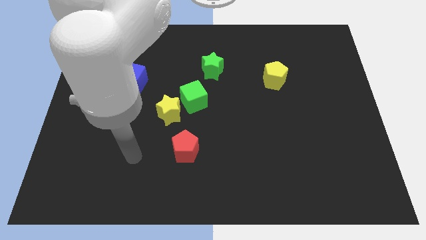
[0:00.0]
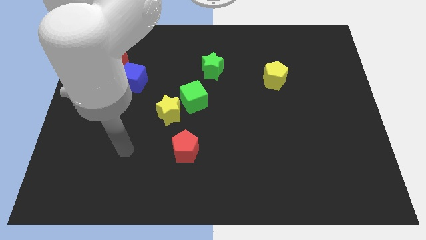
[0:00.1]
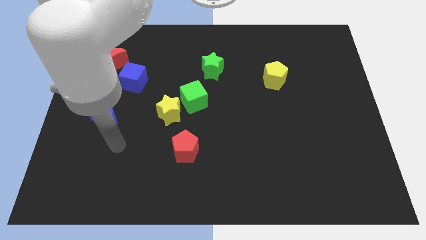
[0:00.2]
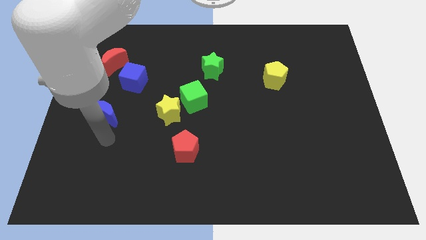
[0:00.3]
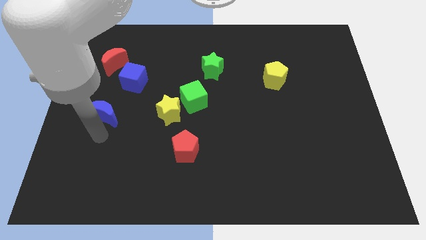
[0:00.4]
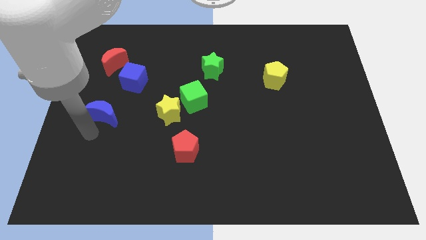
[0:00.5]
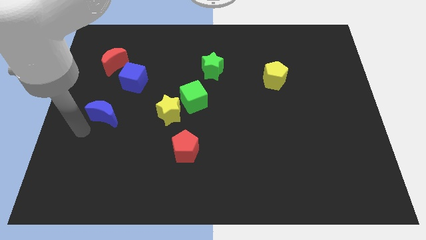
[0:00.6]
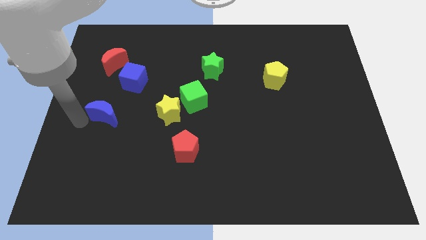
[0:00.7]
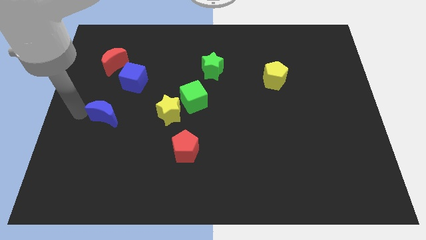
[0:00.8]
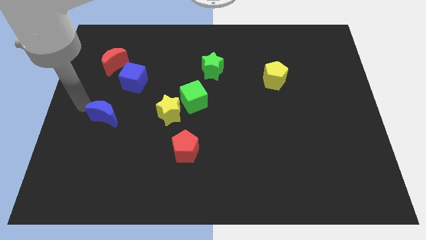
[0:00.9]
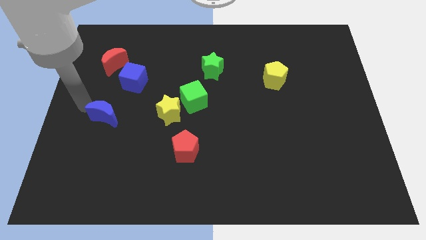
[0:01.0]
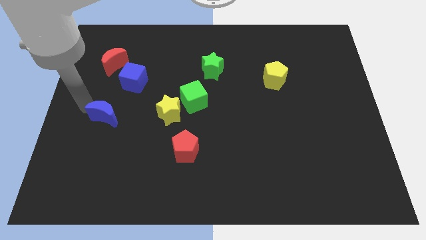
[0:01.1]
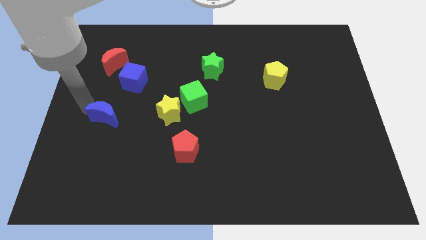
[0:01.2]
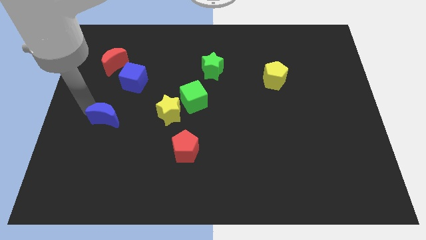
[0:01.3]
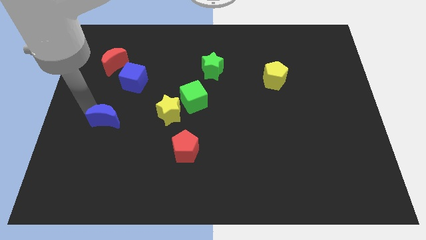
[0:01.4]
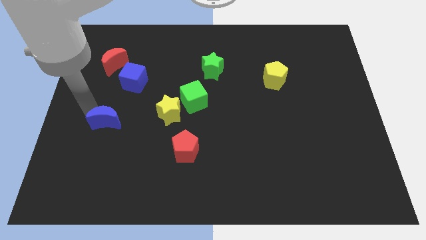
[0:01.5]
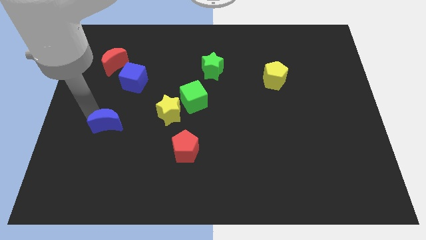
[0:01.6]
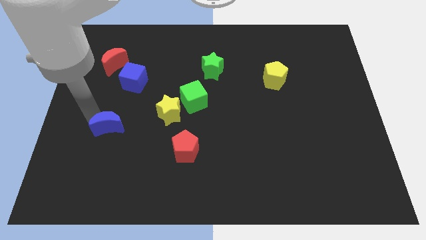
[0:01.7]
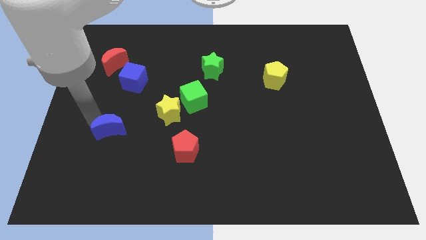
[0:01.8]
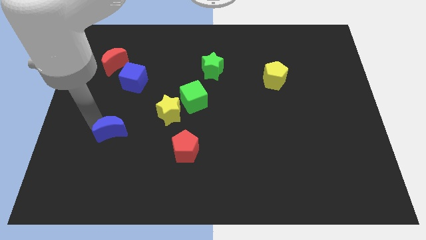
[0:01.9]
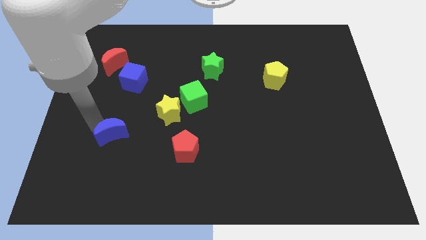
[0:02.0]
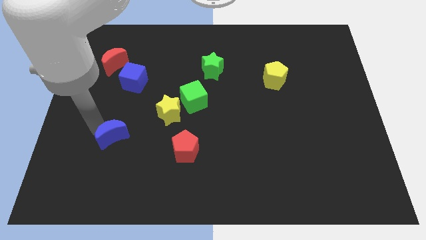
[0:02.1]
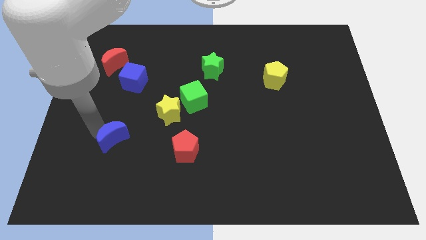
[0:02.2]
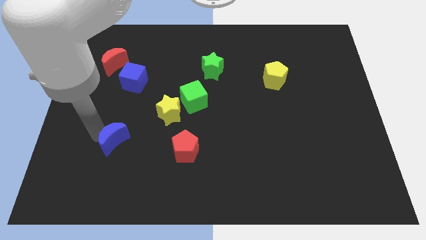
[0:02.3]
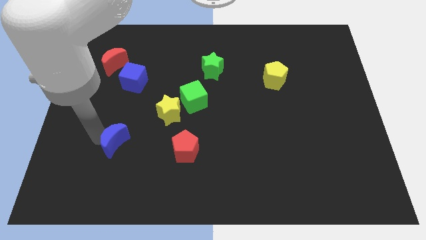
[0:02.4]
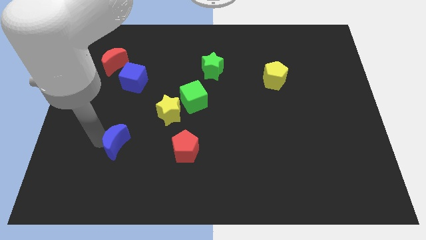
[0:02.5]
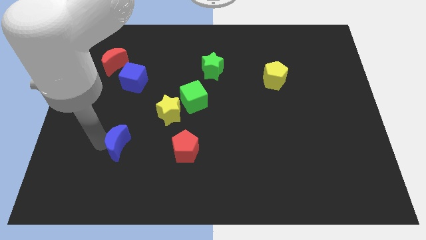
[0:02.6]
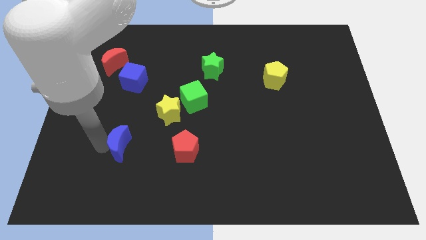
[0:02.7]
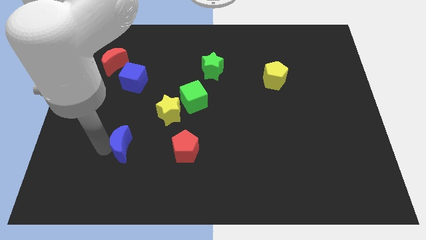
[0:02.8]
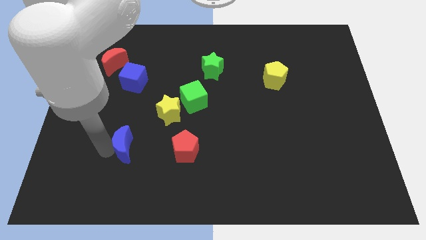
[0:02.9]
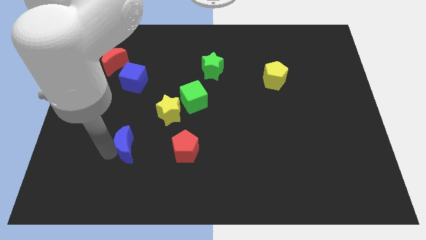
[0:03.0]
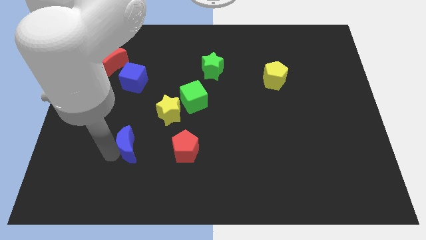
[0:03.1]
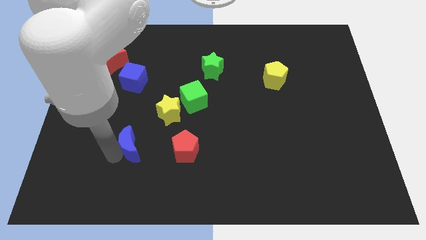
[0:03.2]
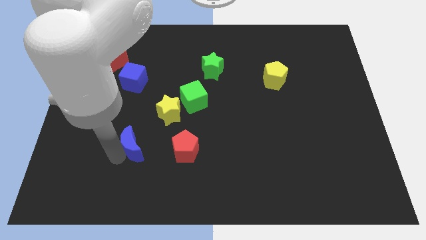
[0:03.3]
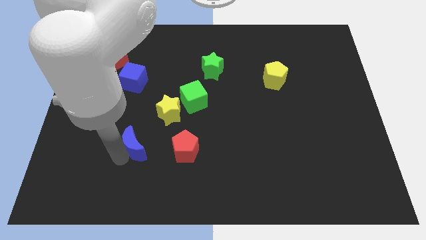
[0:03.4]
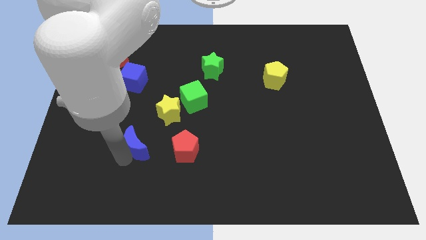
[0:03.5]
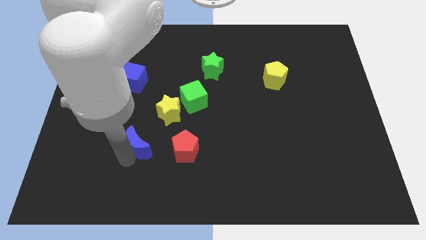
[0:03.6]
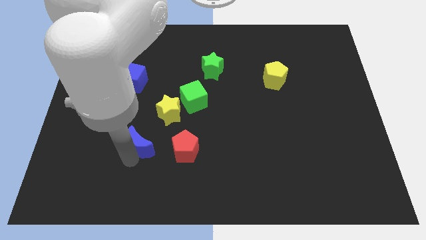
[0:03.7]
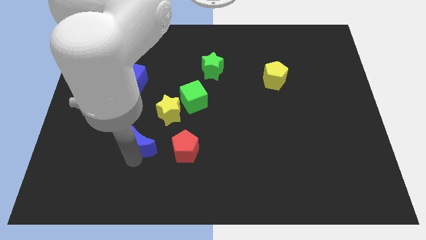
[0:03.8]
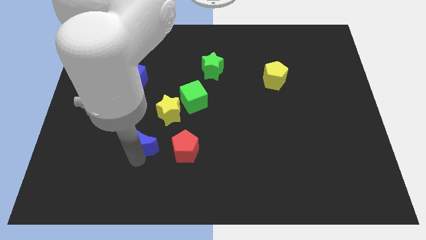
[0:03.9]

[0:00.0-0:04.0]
slightly move the blue moon right

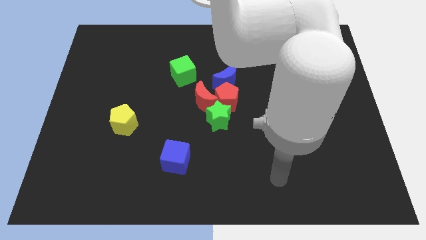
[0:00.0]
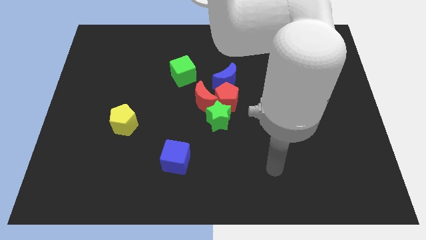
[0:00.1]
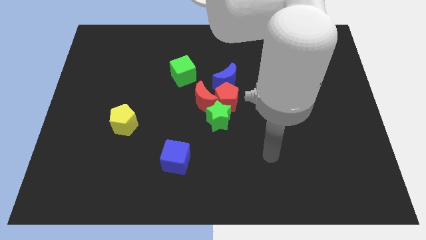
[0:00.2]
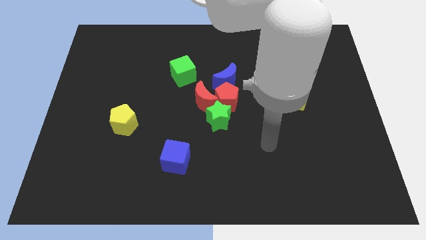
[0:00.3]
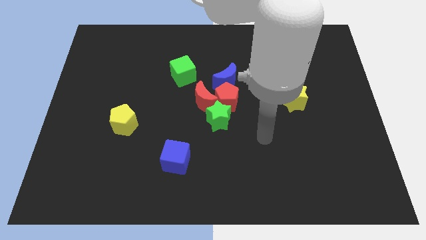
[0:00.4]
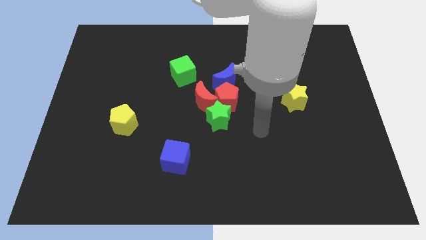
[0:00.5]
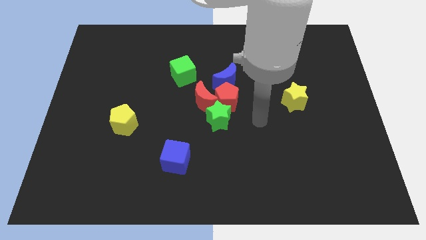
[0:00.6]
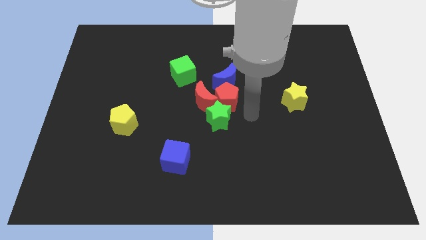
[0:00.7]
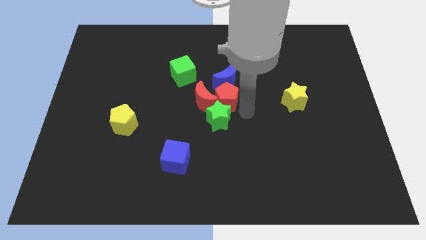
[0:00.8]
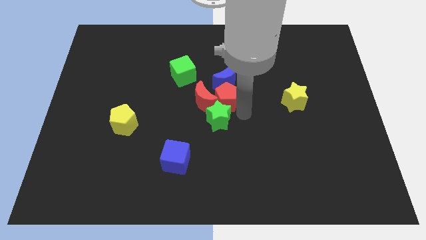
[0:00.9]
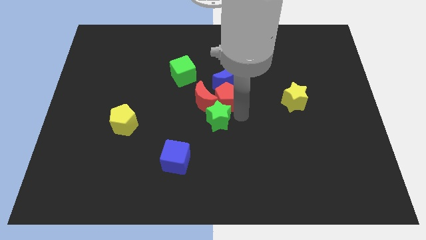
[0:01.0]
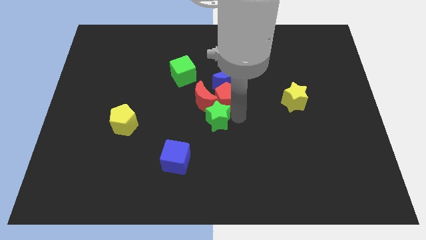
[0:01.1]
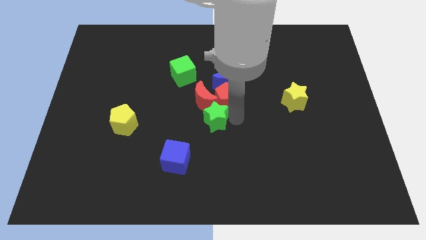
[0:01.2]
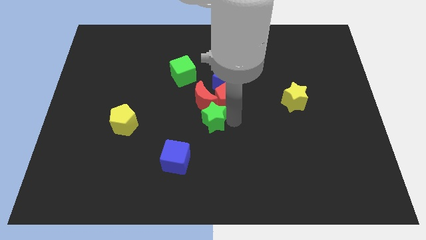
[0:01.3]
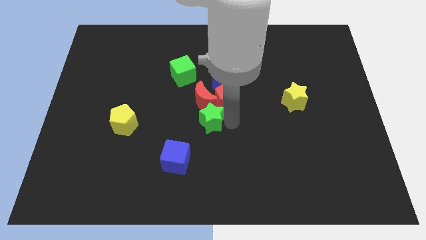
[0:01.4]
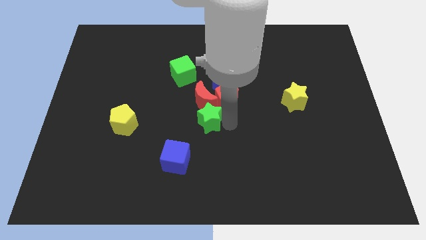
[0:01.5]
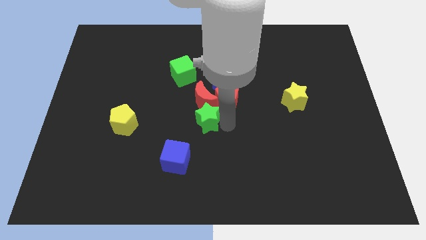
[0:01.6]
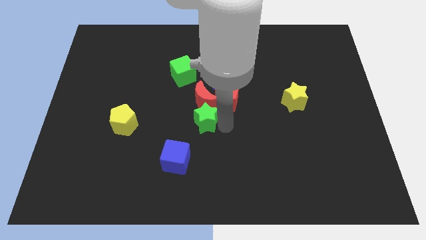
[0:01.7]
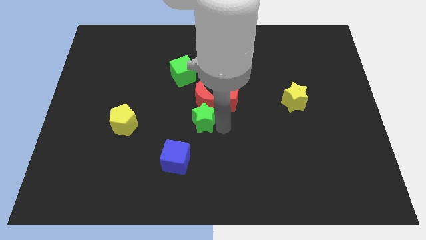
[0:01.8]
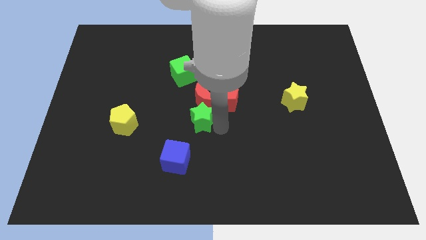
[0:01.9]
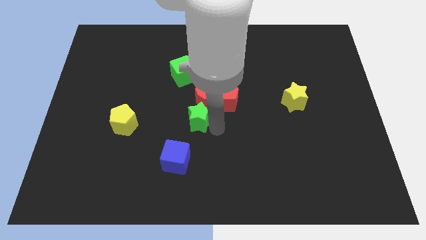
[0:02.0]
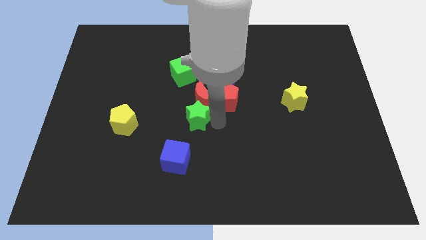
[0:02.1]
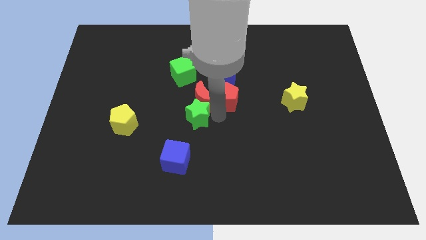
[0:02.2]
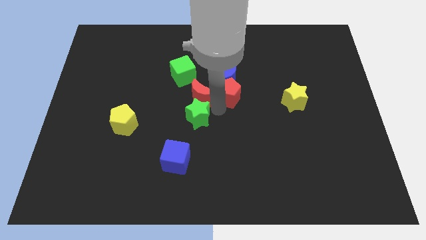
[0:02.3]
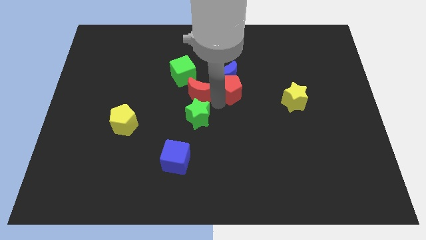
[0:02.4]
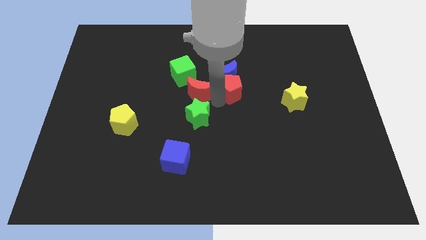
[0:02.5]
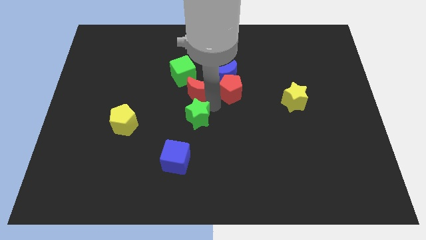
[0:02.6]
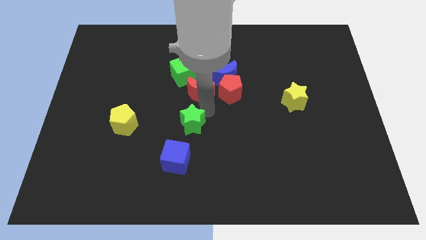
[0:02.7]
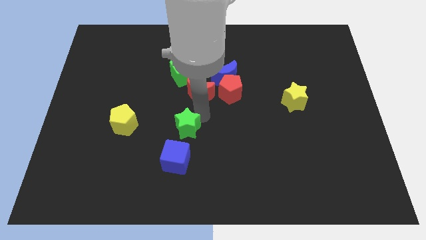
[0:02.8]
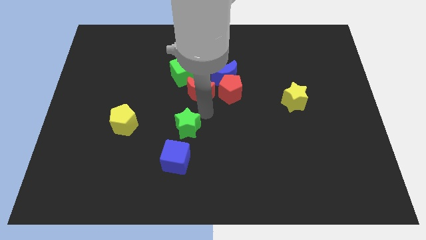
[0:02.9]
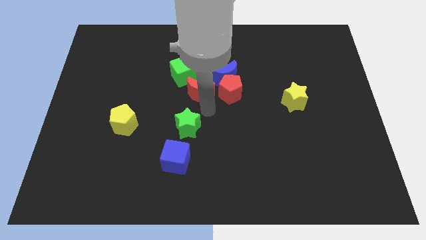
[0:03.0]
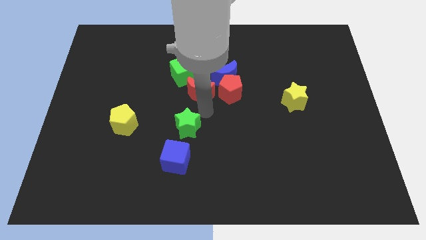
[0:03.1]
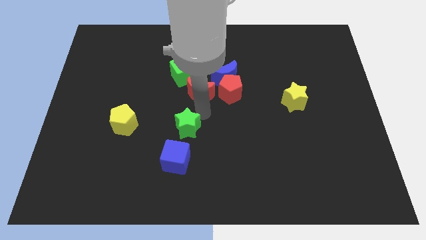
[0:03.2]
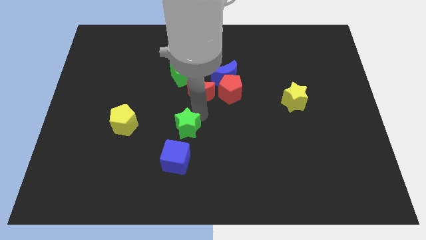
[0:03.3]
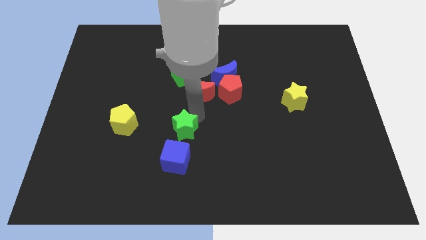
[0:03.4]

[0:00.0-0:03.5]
push the green star slightly down and left

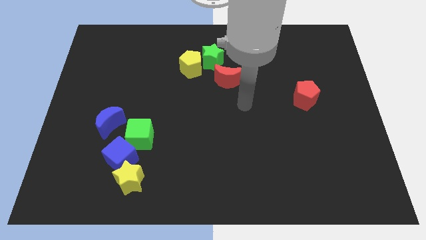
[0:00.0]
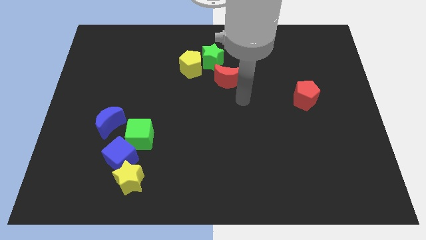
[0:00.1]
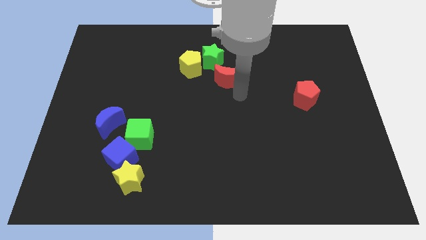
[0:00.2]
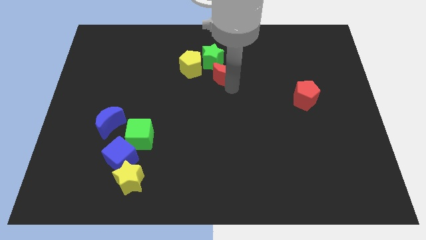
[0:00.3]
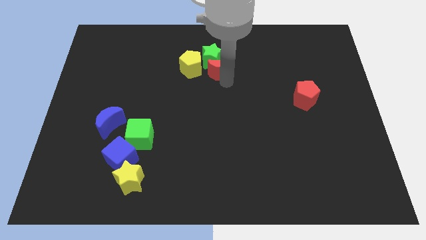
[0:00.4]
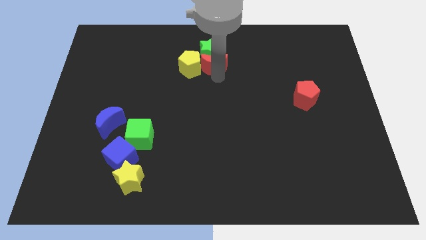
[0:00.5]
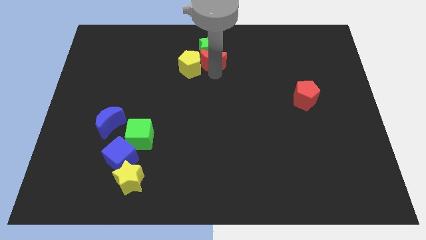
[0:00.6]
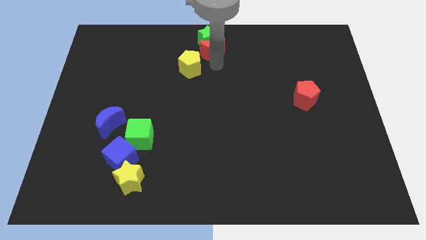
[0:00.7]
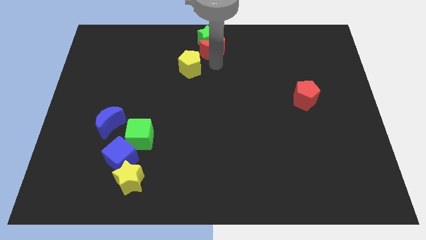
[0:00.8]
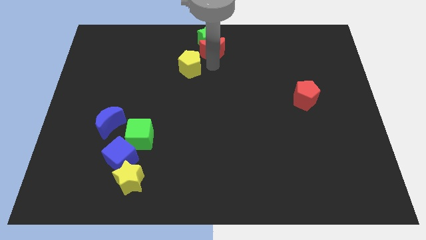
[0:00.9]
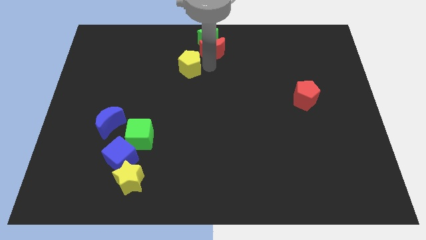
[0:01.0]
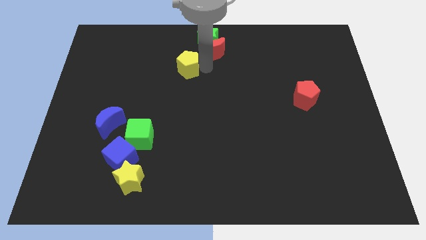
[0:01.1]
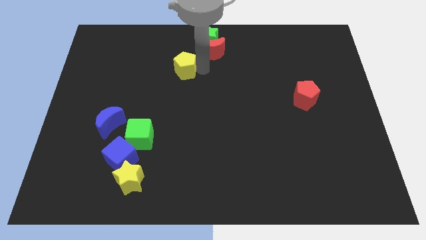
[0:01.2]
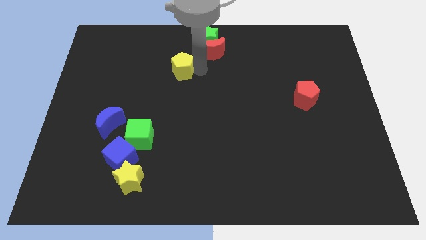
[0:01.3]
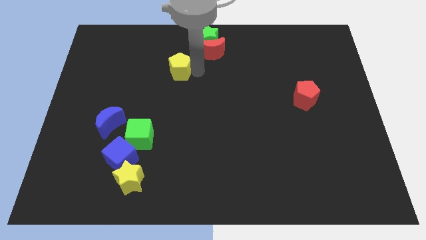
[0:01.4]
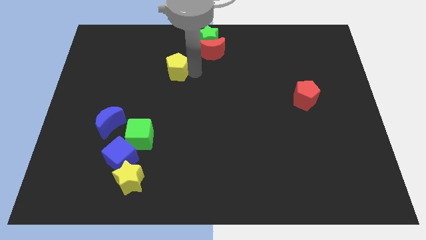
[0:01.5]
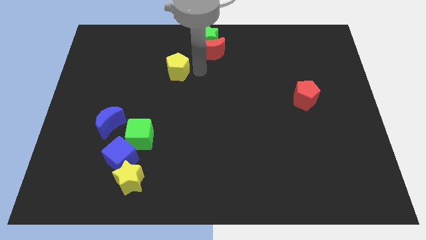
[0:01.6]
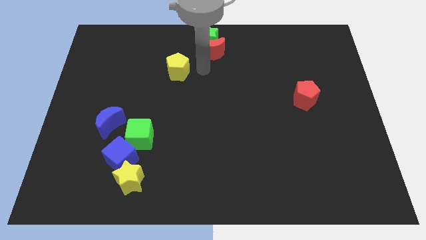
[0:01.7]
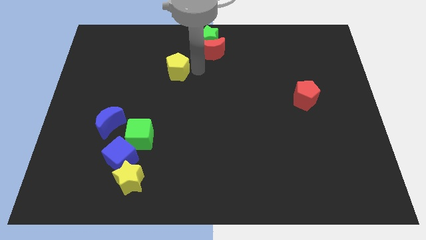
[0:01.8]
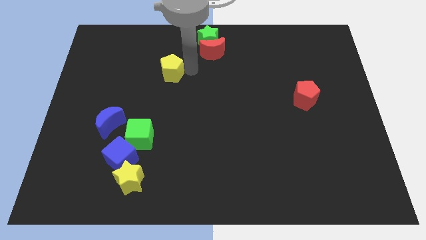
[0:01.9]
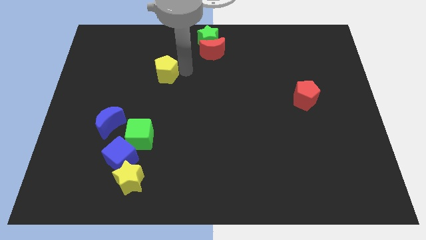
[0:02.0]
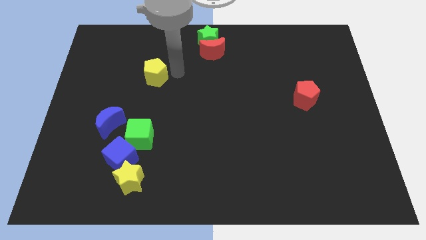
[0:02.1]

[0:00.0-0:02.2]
slide the yellow pentagon left a little bit
